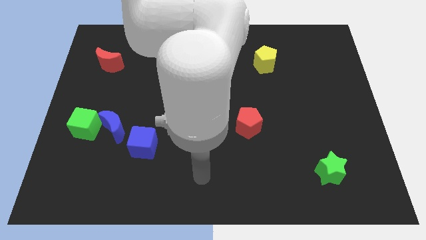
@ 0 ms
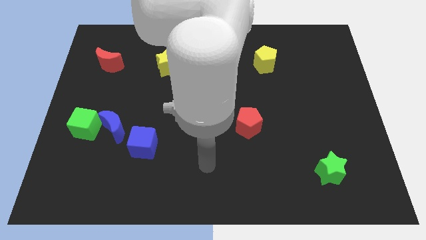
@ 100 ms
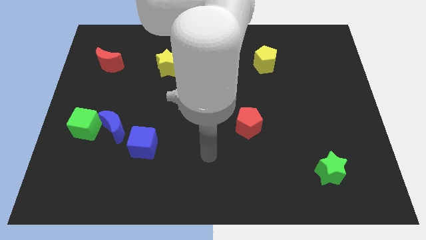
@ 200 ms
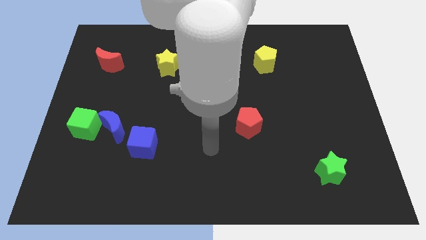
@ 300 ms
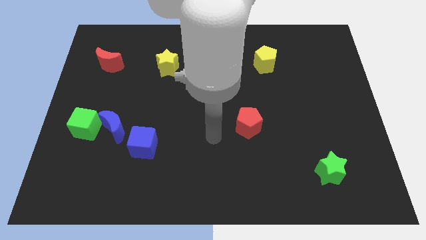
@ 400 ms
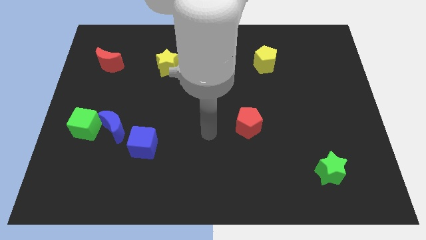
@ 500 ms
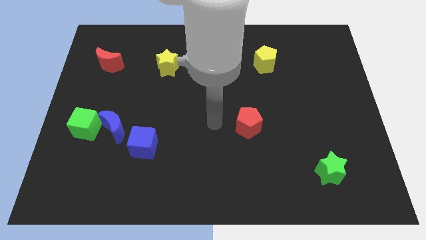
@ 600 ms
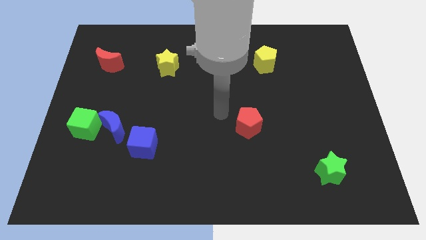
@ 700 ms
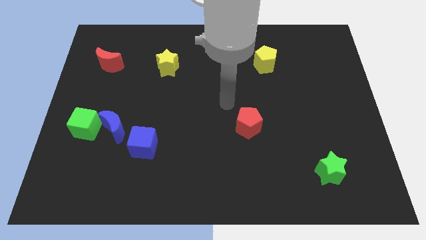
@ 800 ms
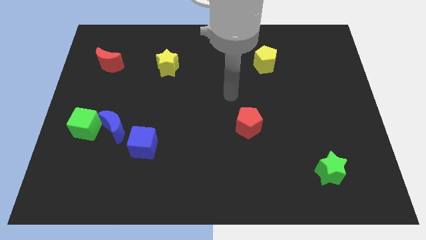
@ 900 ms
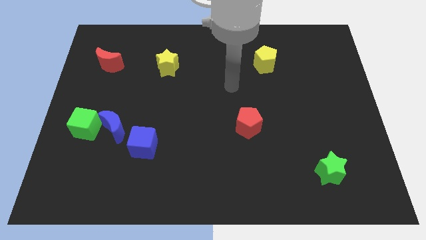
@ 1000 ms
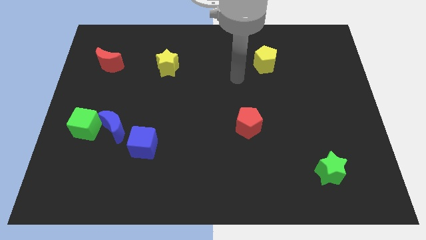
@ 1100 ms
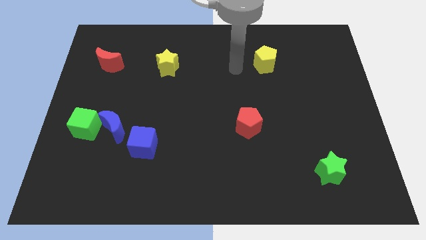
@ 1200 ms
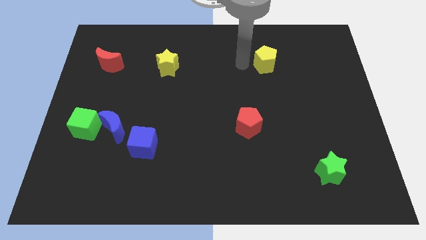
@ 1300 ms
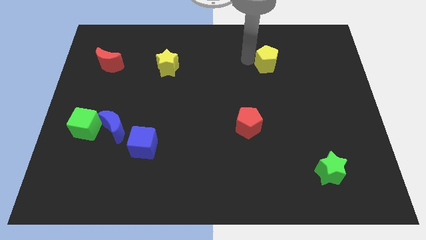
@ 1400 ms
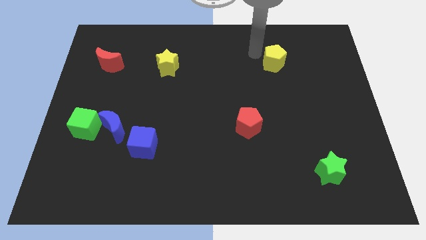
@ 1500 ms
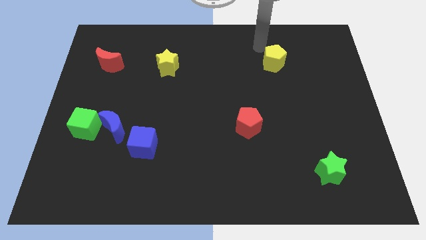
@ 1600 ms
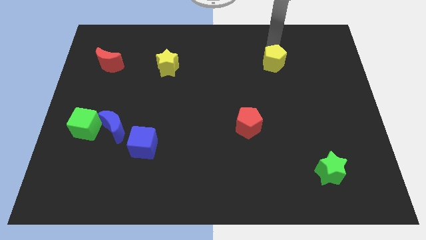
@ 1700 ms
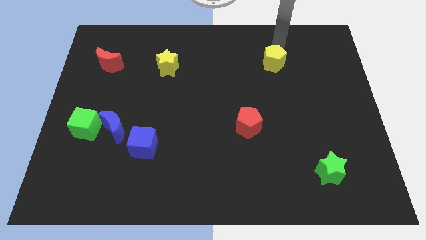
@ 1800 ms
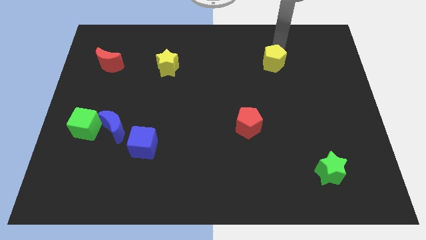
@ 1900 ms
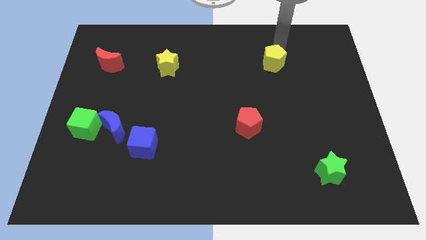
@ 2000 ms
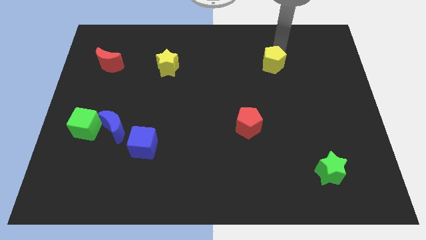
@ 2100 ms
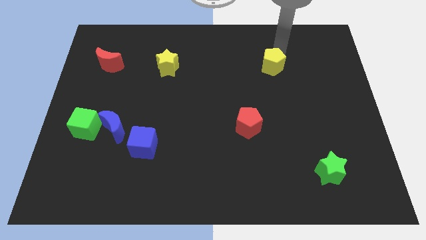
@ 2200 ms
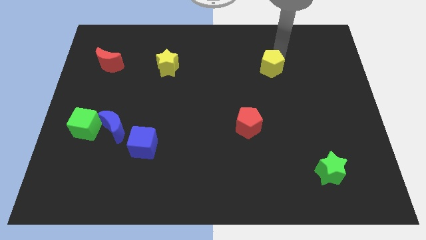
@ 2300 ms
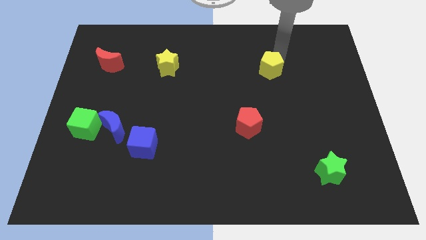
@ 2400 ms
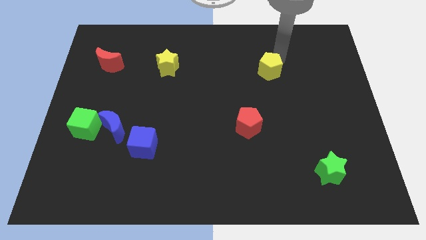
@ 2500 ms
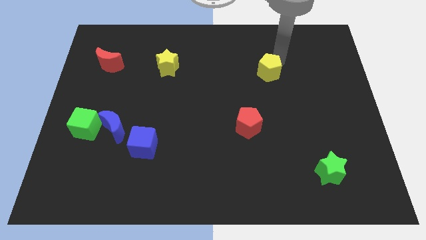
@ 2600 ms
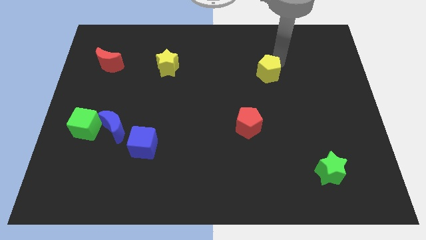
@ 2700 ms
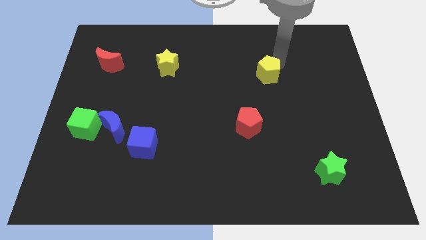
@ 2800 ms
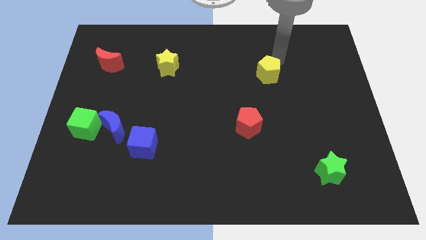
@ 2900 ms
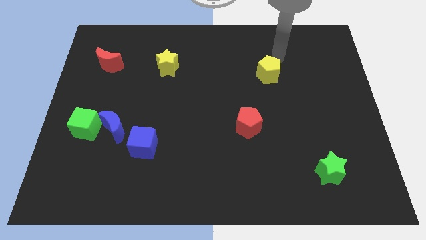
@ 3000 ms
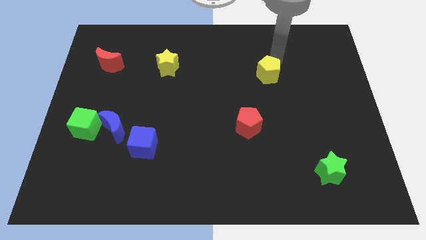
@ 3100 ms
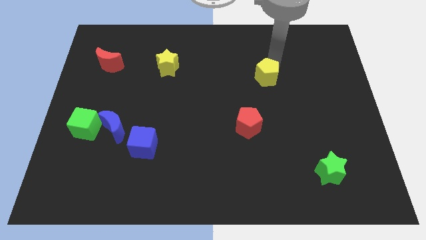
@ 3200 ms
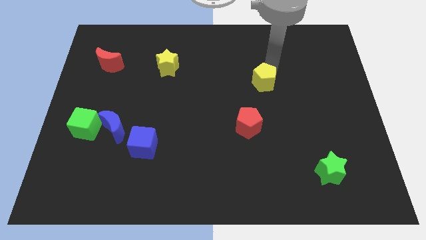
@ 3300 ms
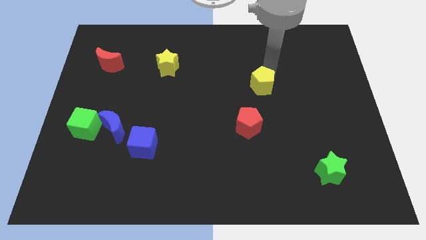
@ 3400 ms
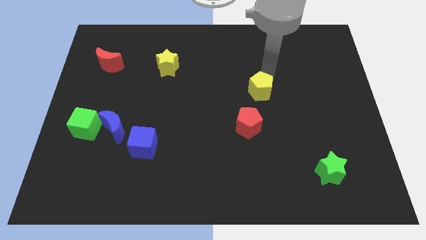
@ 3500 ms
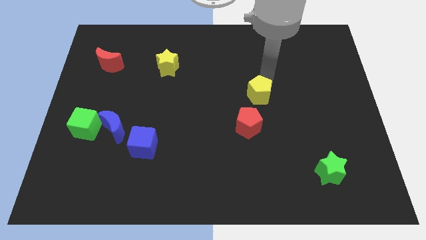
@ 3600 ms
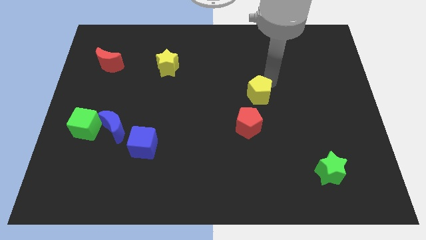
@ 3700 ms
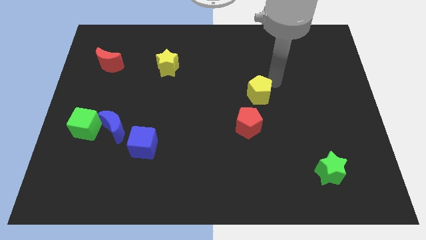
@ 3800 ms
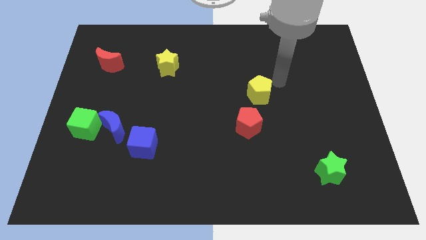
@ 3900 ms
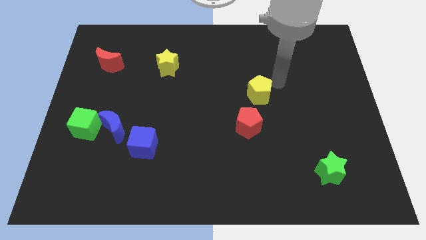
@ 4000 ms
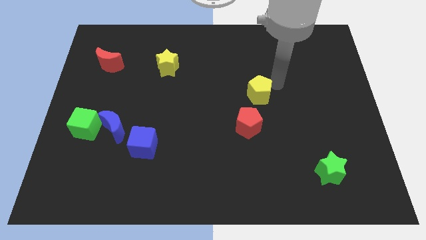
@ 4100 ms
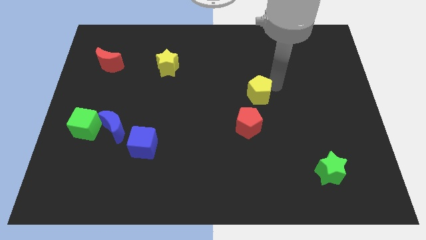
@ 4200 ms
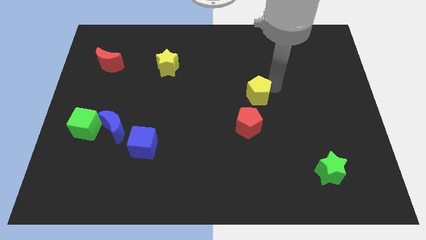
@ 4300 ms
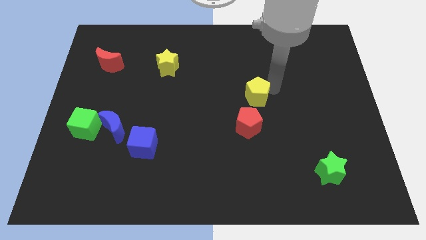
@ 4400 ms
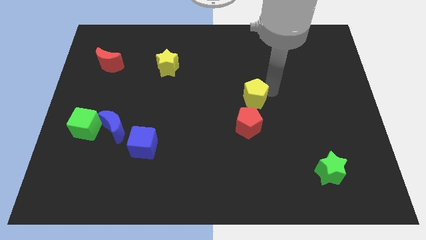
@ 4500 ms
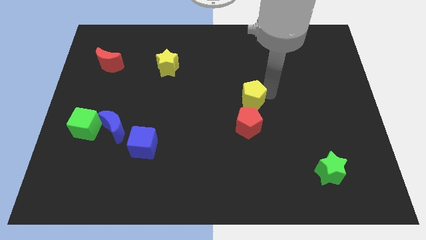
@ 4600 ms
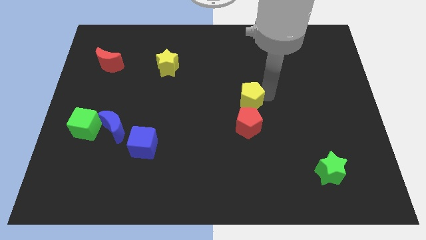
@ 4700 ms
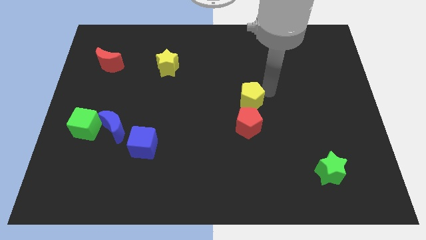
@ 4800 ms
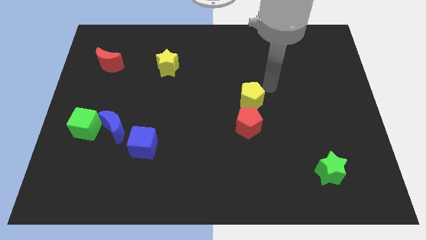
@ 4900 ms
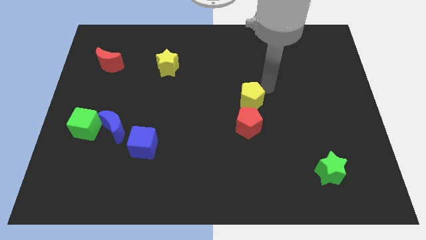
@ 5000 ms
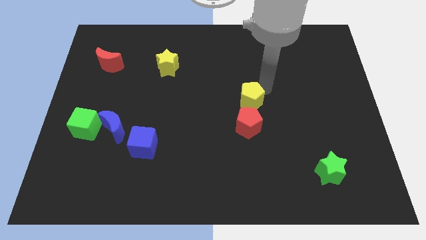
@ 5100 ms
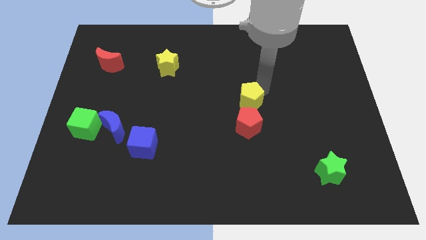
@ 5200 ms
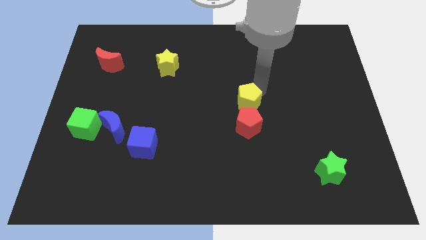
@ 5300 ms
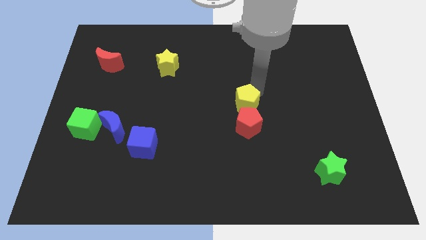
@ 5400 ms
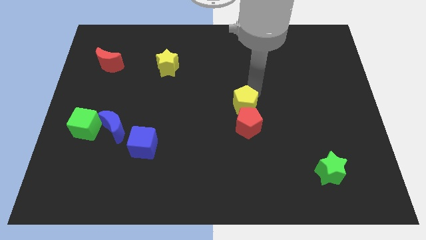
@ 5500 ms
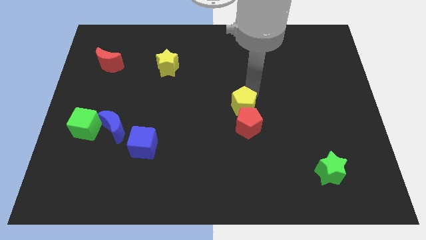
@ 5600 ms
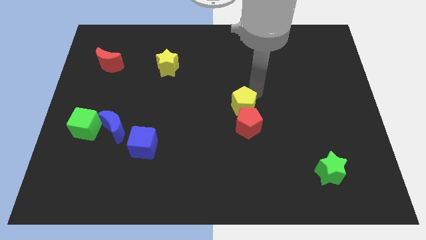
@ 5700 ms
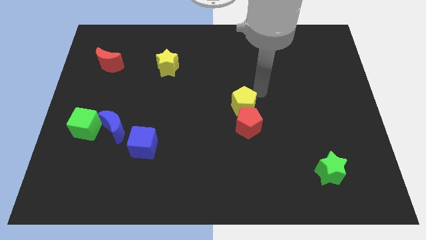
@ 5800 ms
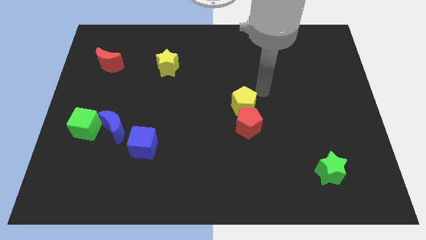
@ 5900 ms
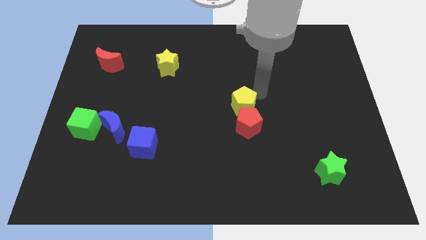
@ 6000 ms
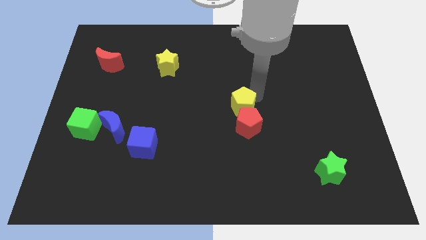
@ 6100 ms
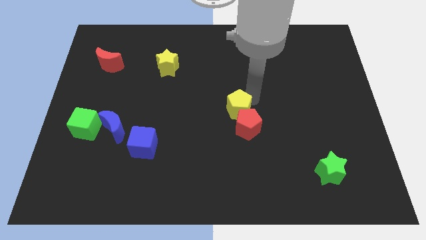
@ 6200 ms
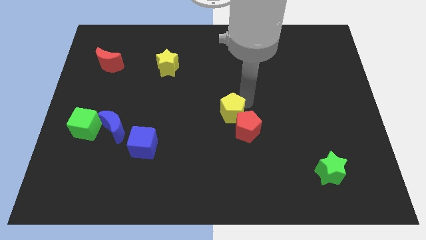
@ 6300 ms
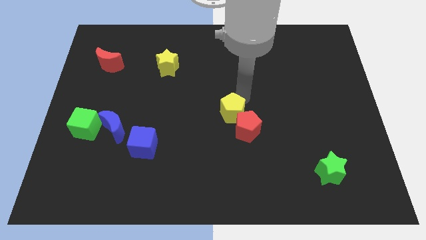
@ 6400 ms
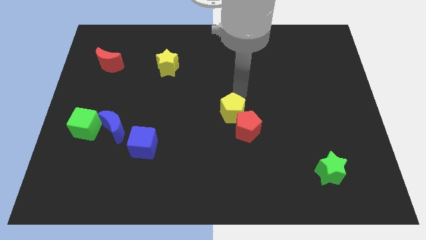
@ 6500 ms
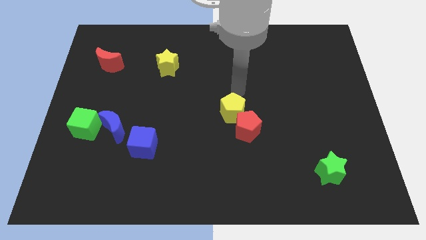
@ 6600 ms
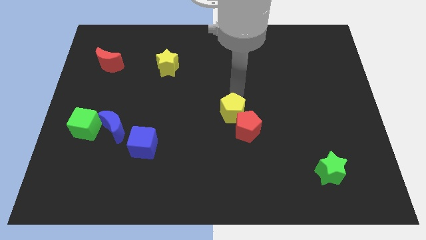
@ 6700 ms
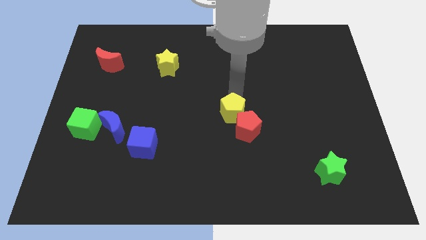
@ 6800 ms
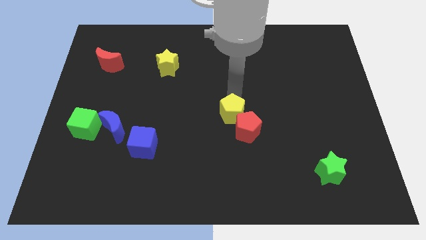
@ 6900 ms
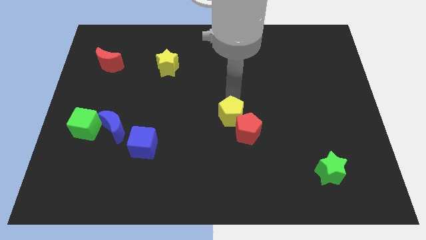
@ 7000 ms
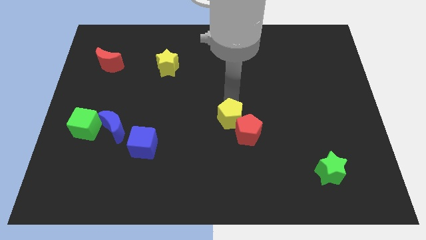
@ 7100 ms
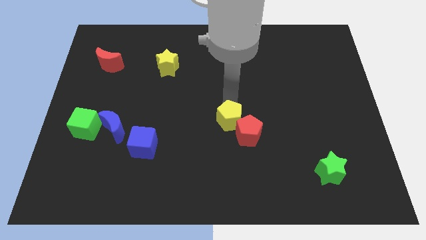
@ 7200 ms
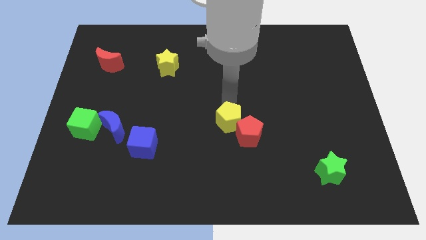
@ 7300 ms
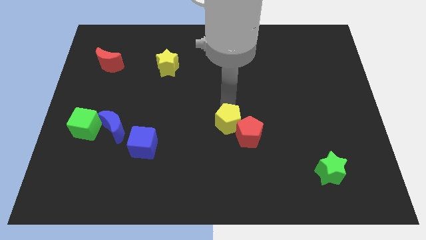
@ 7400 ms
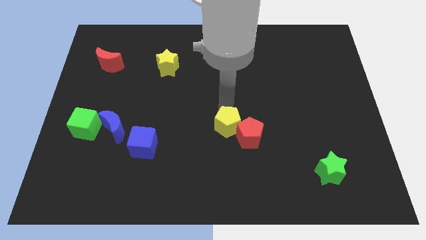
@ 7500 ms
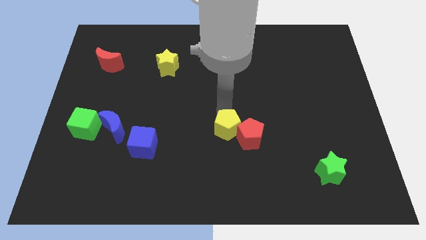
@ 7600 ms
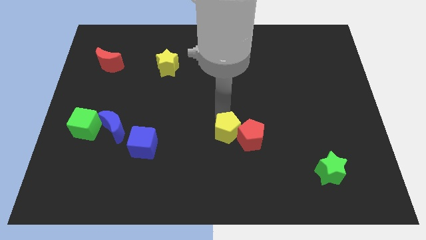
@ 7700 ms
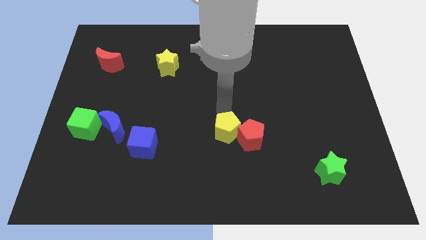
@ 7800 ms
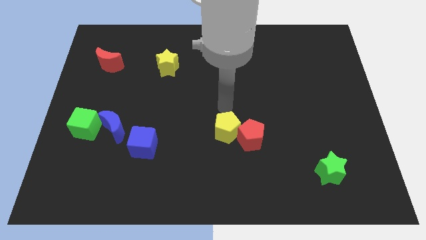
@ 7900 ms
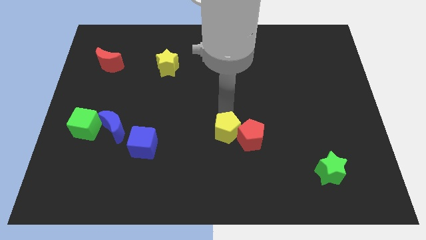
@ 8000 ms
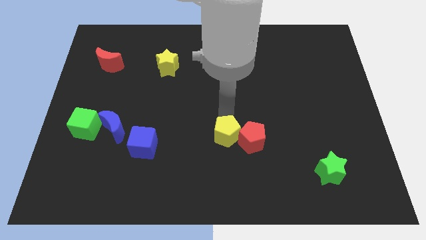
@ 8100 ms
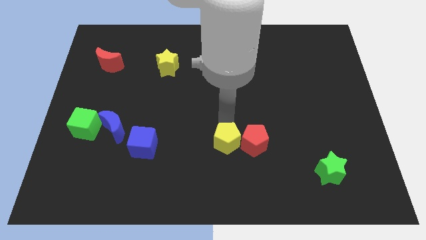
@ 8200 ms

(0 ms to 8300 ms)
put the yellow pentagon diagonally down and to the left of the red pentagon
